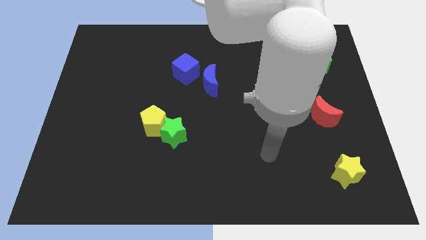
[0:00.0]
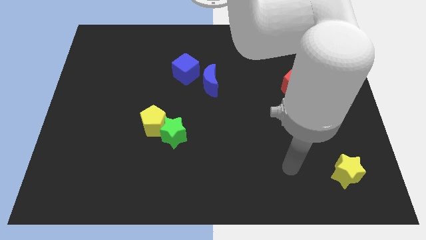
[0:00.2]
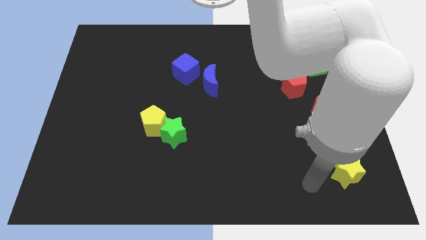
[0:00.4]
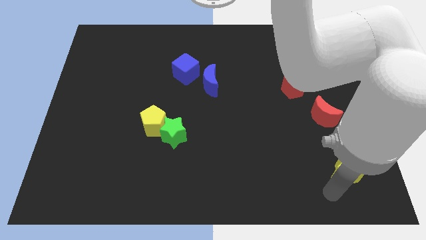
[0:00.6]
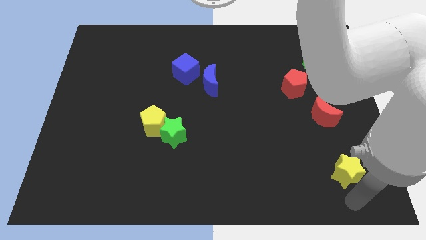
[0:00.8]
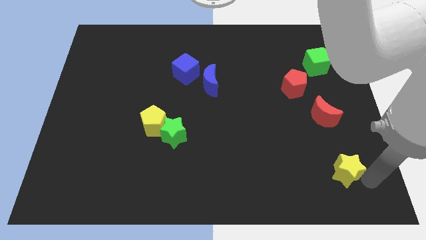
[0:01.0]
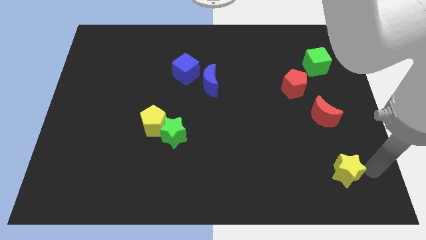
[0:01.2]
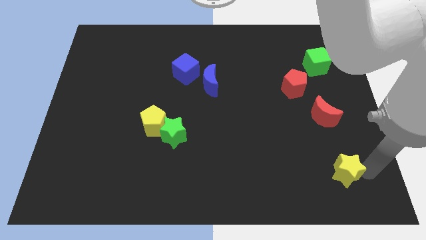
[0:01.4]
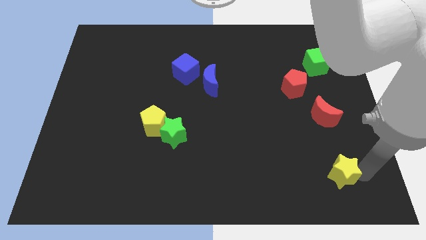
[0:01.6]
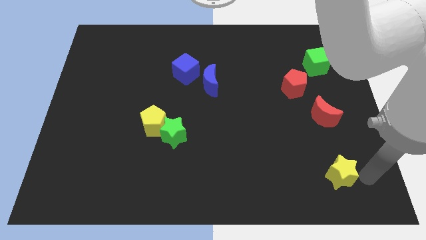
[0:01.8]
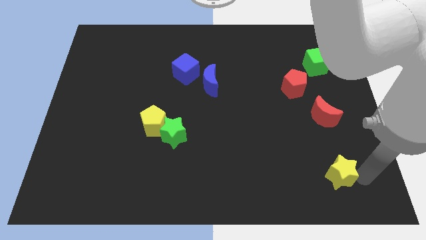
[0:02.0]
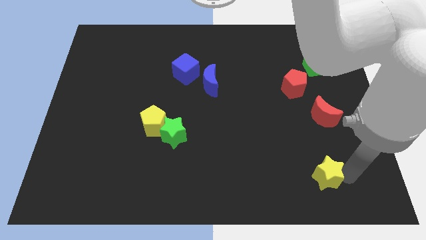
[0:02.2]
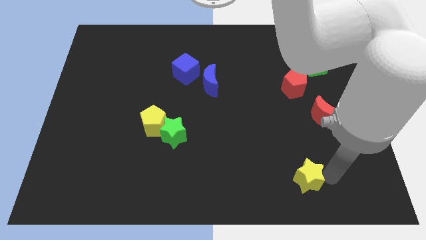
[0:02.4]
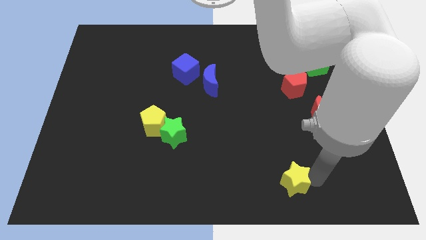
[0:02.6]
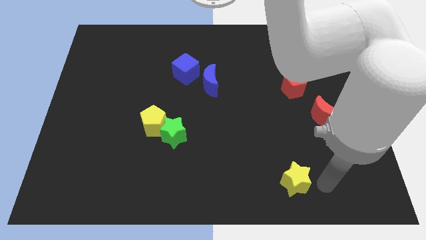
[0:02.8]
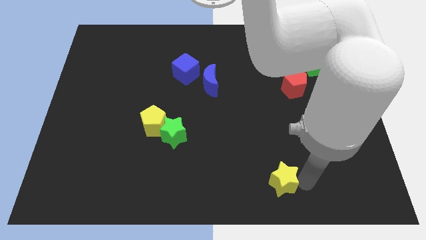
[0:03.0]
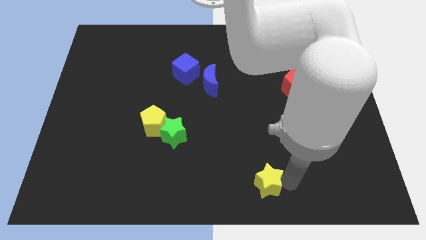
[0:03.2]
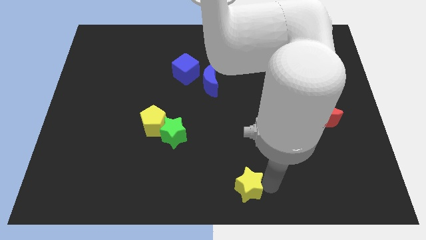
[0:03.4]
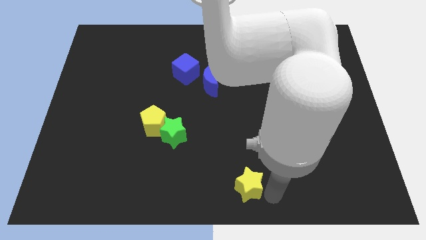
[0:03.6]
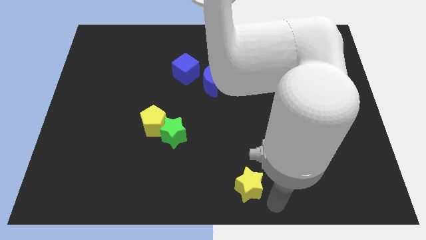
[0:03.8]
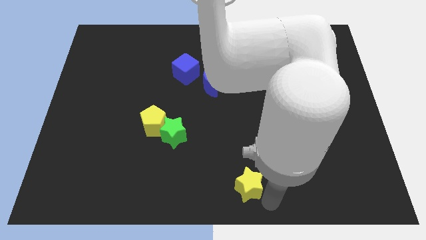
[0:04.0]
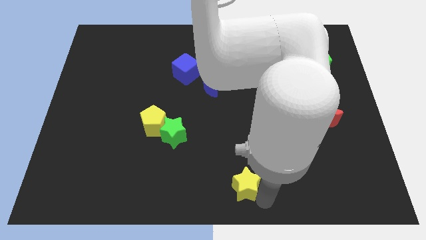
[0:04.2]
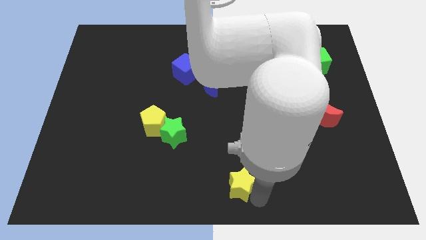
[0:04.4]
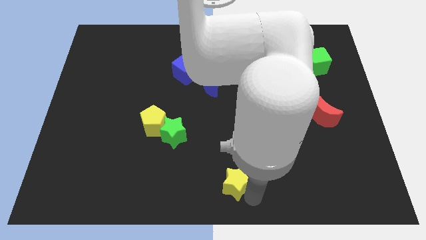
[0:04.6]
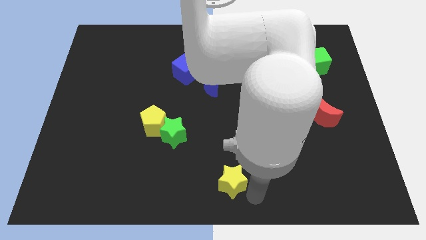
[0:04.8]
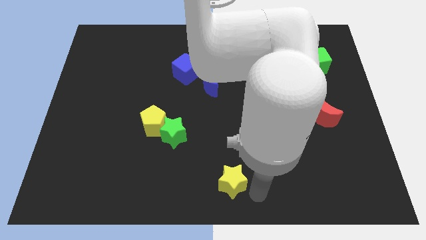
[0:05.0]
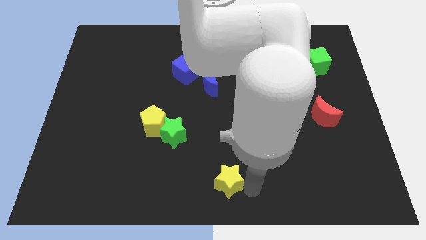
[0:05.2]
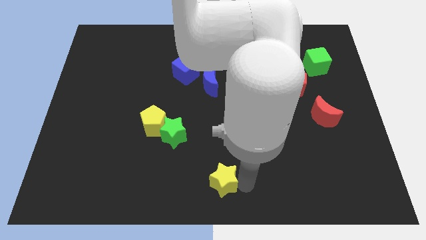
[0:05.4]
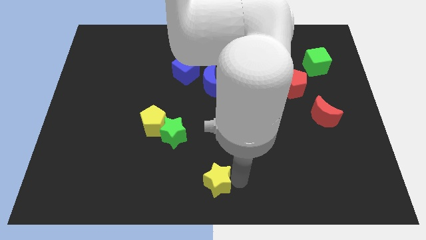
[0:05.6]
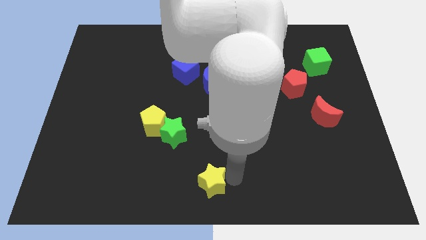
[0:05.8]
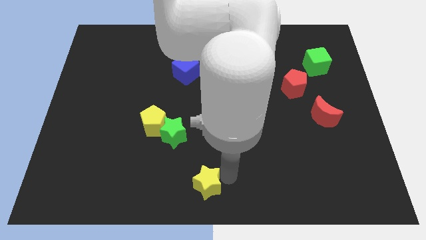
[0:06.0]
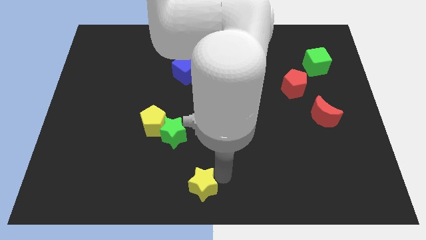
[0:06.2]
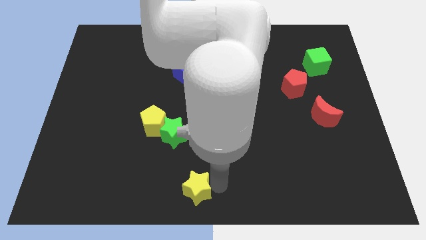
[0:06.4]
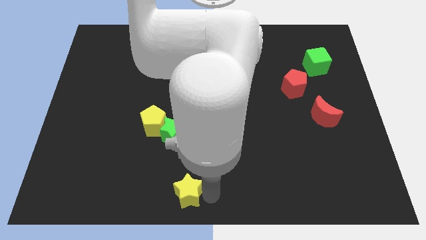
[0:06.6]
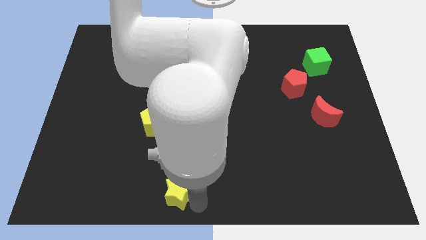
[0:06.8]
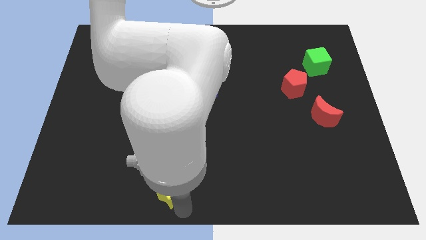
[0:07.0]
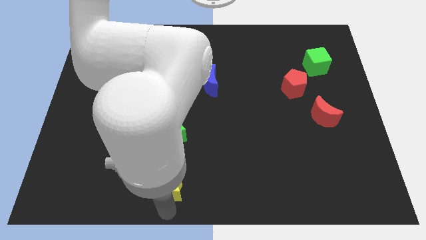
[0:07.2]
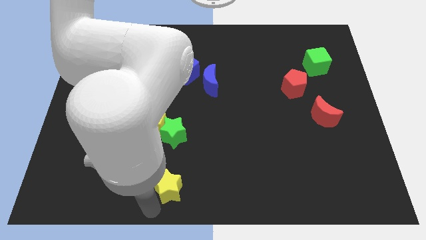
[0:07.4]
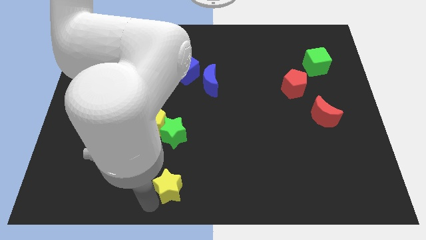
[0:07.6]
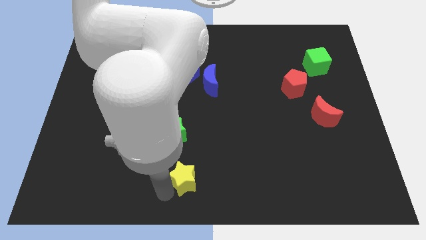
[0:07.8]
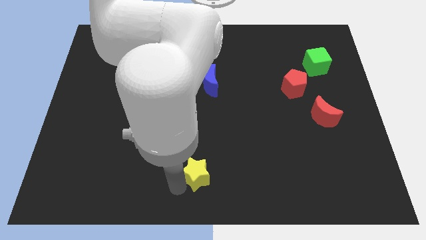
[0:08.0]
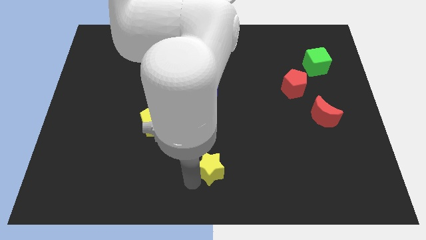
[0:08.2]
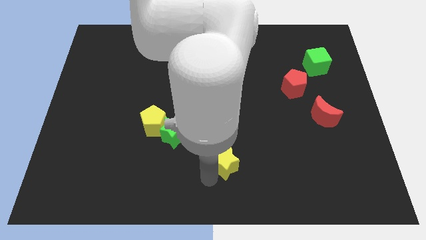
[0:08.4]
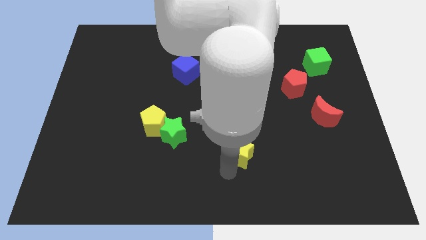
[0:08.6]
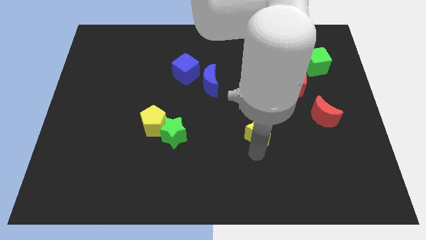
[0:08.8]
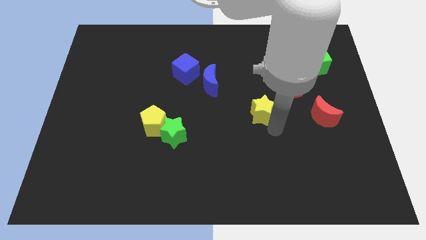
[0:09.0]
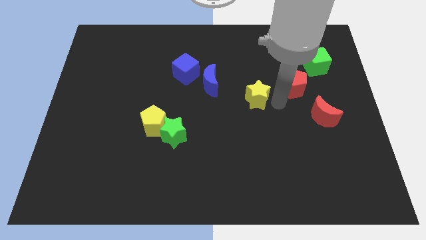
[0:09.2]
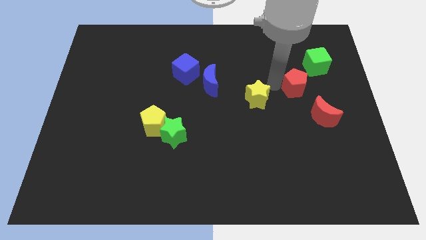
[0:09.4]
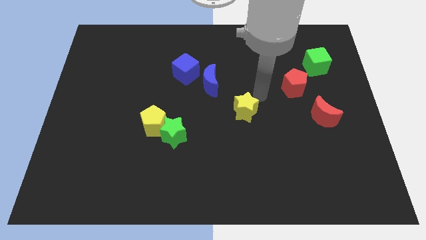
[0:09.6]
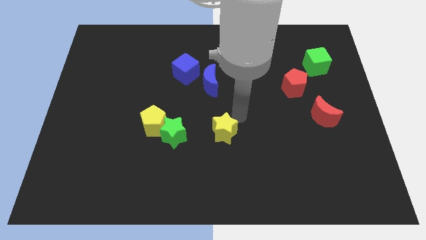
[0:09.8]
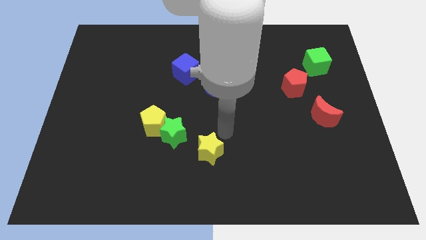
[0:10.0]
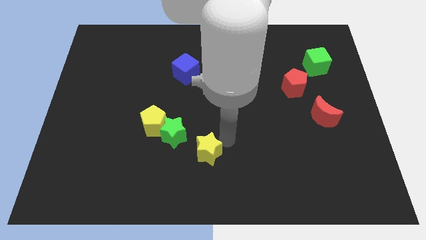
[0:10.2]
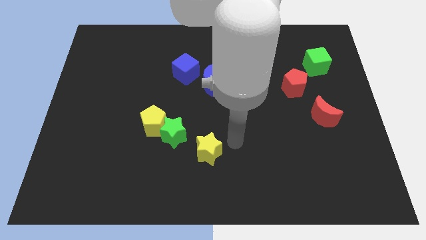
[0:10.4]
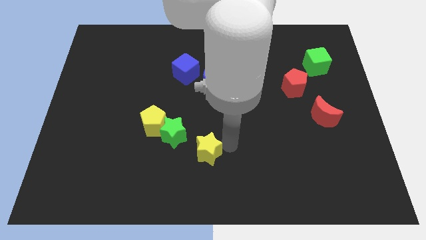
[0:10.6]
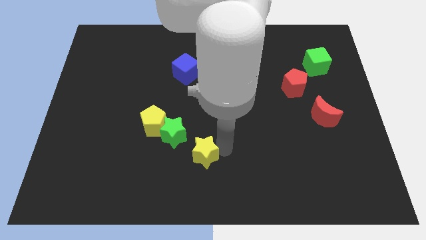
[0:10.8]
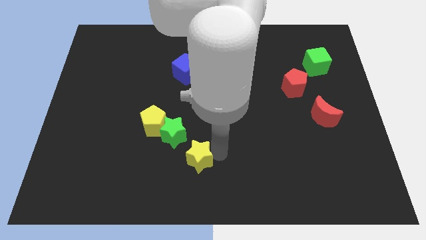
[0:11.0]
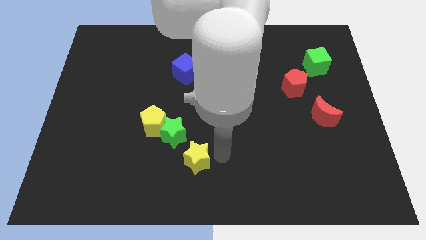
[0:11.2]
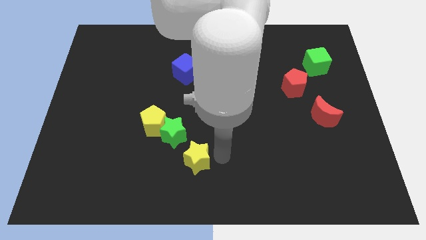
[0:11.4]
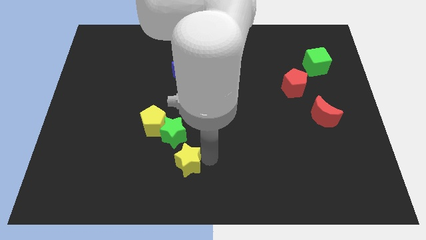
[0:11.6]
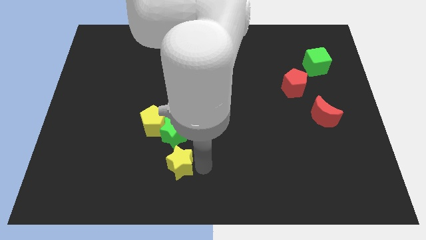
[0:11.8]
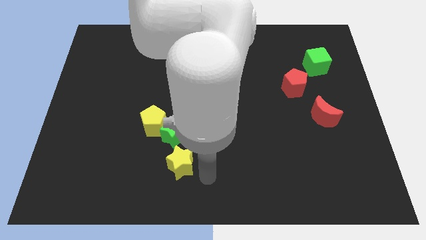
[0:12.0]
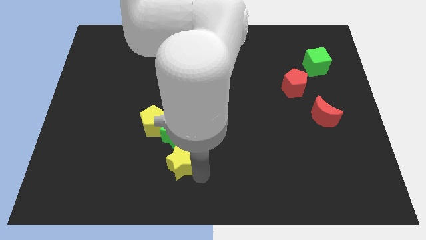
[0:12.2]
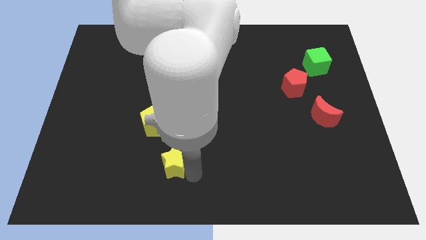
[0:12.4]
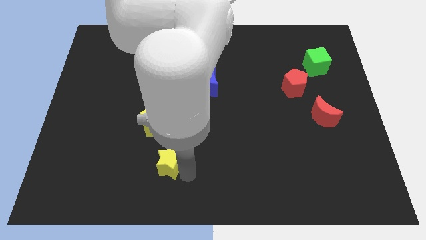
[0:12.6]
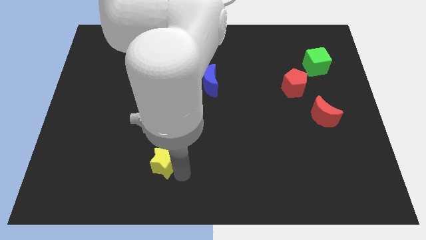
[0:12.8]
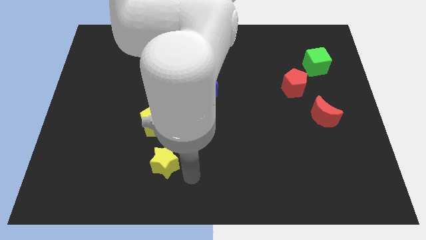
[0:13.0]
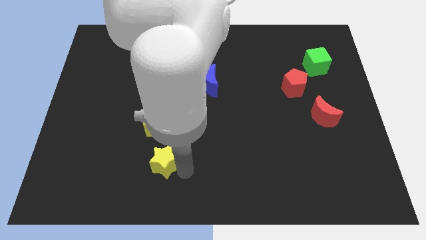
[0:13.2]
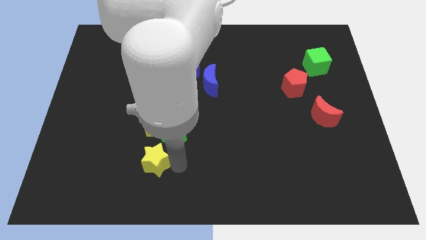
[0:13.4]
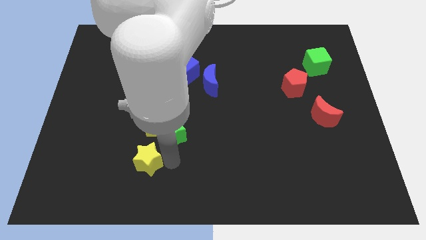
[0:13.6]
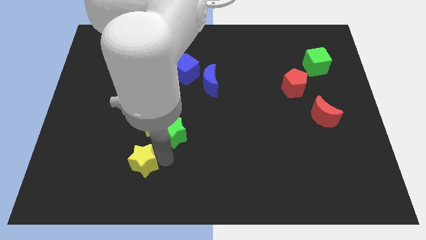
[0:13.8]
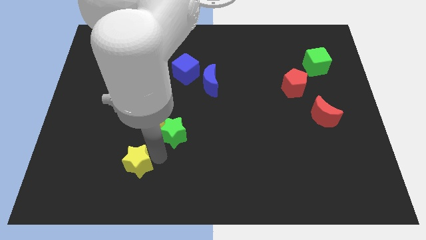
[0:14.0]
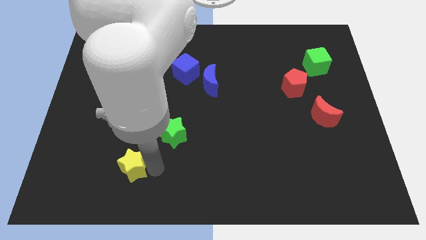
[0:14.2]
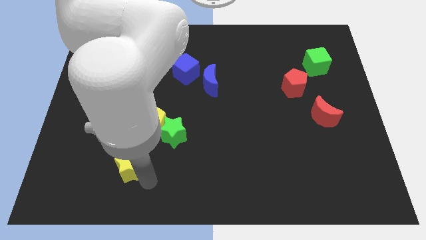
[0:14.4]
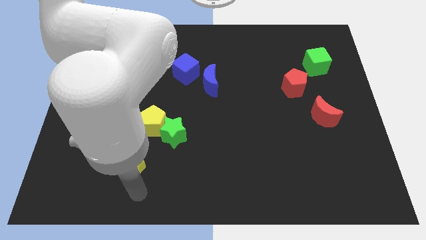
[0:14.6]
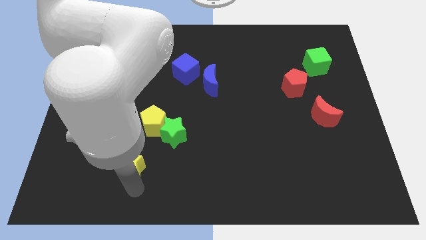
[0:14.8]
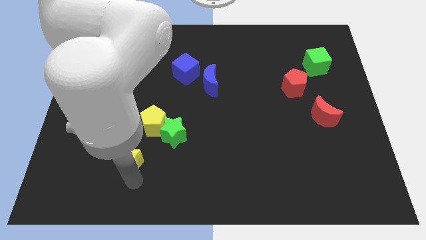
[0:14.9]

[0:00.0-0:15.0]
put the yellow star to the bottom left side of the yellow pentagon
